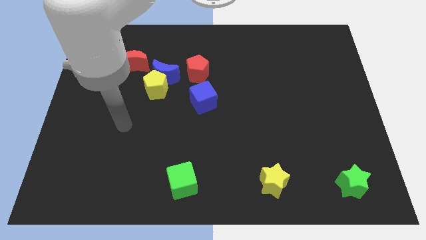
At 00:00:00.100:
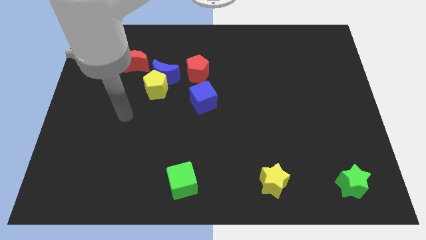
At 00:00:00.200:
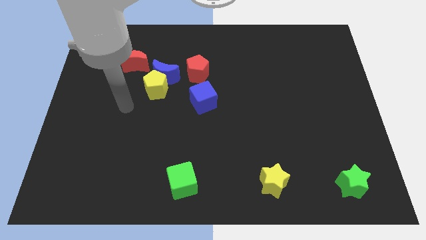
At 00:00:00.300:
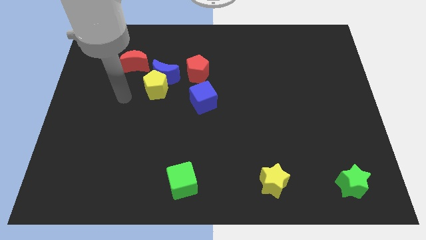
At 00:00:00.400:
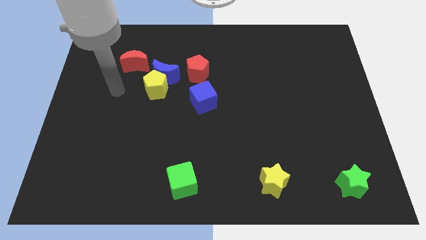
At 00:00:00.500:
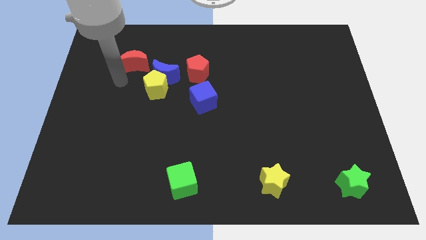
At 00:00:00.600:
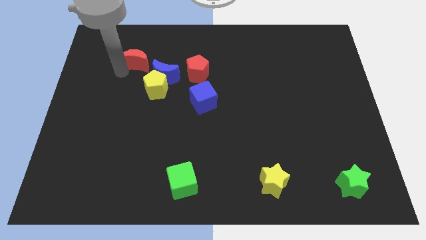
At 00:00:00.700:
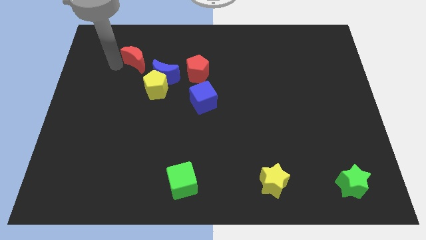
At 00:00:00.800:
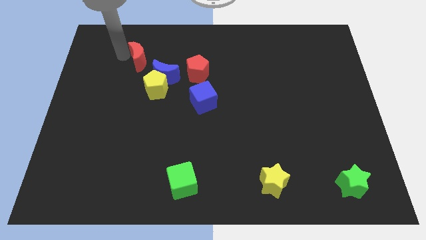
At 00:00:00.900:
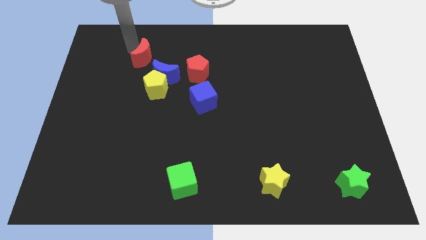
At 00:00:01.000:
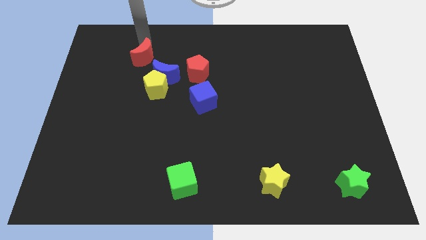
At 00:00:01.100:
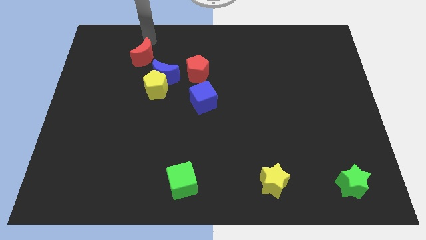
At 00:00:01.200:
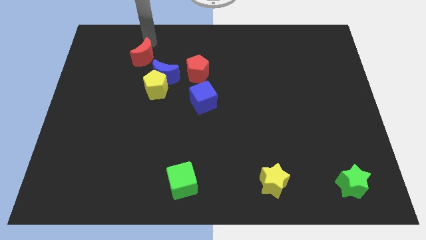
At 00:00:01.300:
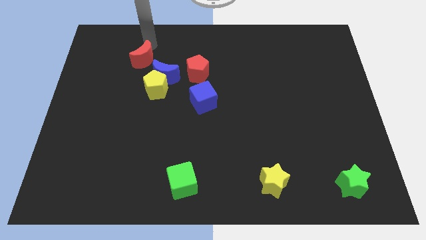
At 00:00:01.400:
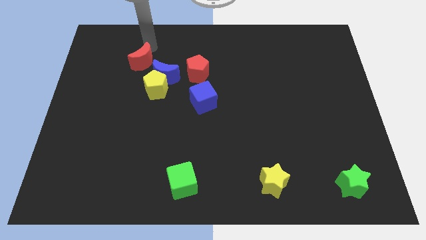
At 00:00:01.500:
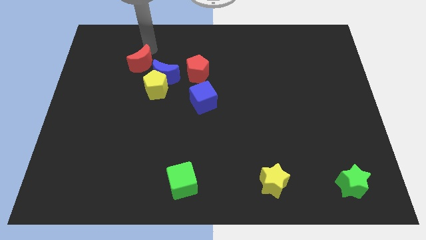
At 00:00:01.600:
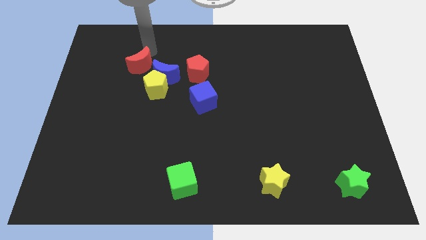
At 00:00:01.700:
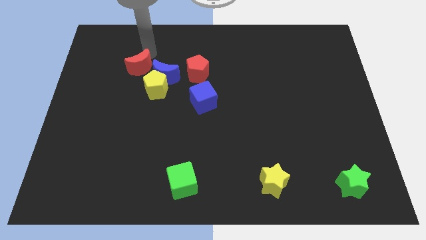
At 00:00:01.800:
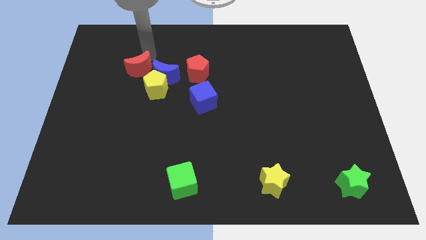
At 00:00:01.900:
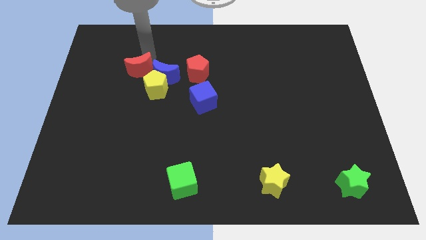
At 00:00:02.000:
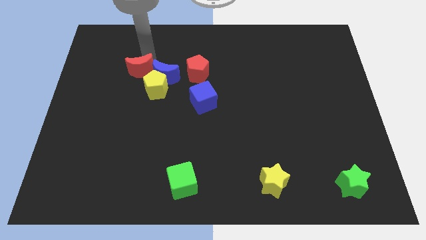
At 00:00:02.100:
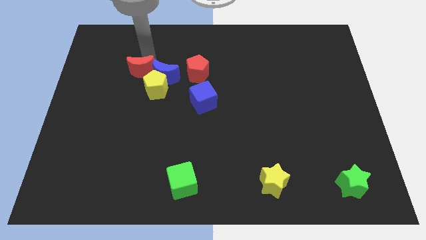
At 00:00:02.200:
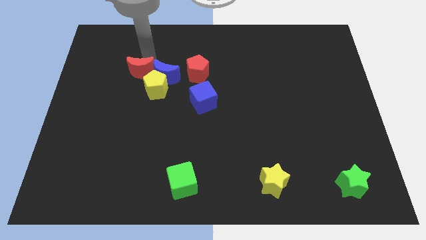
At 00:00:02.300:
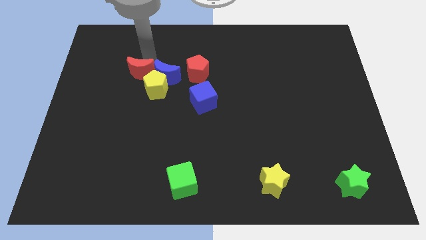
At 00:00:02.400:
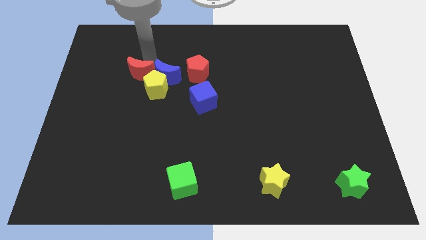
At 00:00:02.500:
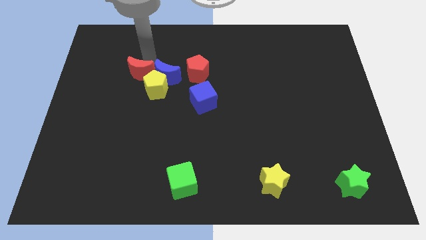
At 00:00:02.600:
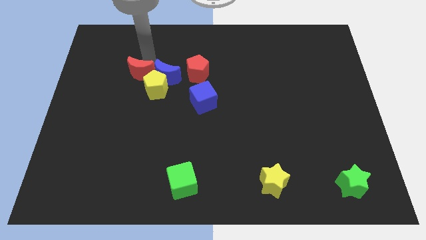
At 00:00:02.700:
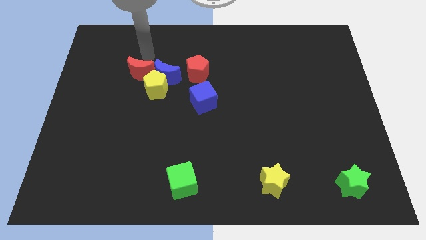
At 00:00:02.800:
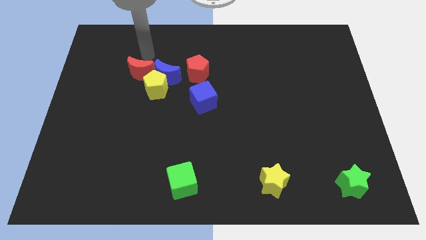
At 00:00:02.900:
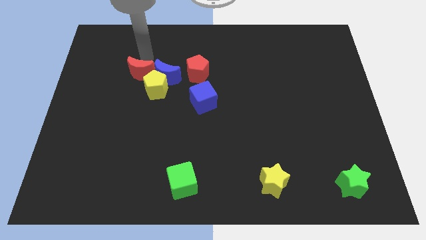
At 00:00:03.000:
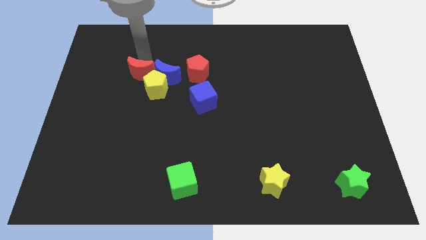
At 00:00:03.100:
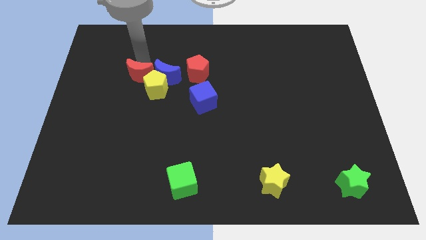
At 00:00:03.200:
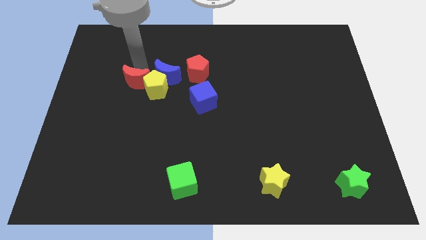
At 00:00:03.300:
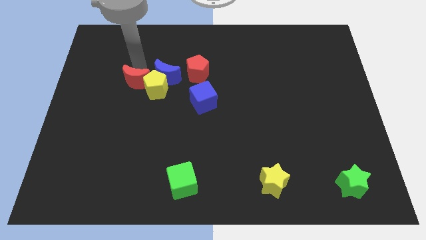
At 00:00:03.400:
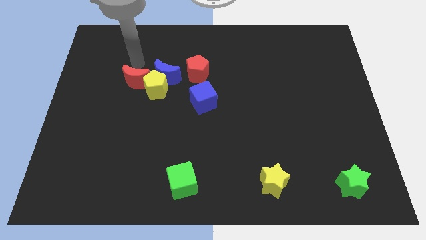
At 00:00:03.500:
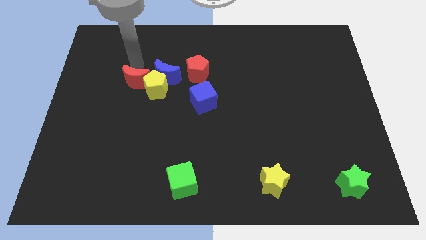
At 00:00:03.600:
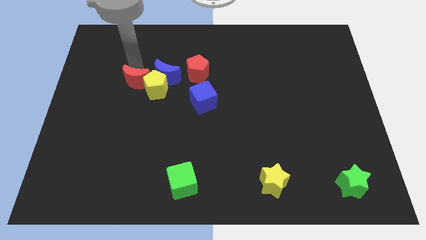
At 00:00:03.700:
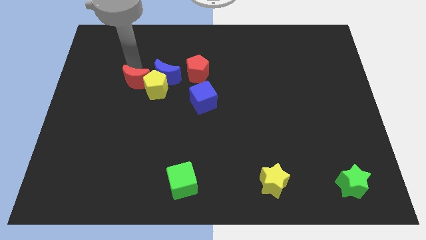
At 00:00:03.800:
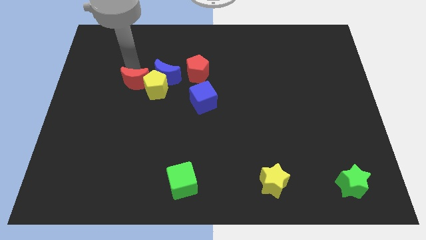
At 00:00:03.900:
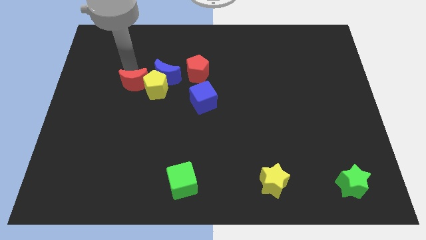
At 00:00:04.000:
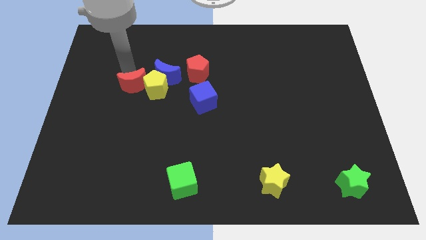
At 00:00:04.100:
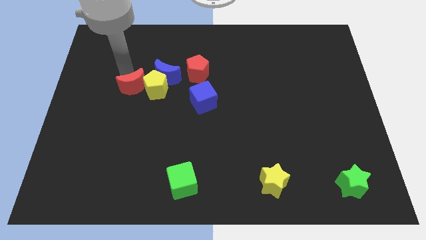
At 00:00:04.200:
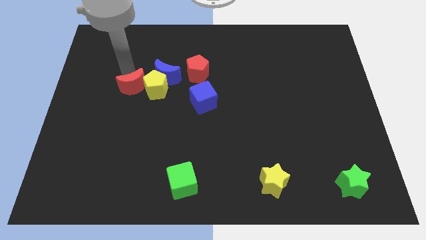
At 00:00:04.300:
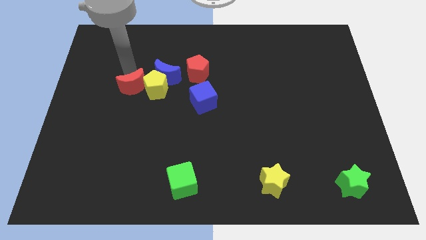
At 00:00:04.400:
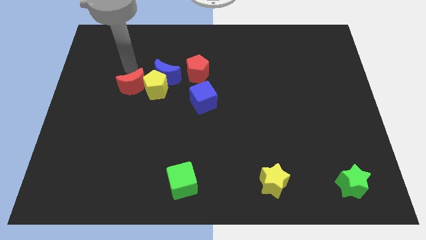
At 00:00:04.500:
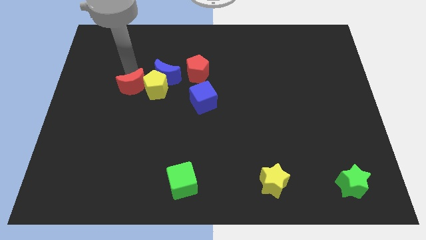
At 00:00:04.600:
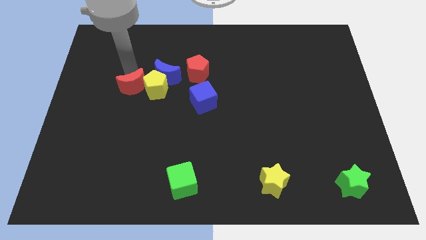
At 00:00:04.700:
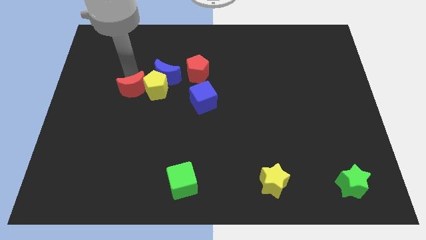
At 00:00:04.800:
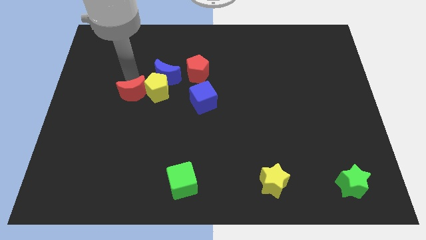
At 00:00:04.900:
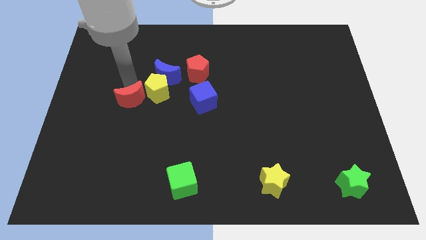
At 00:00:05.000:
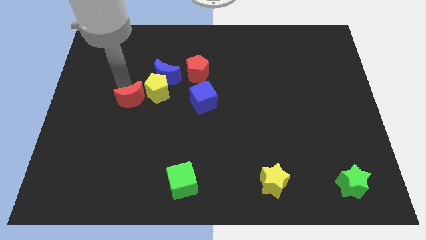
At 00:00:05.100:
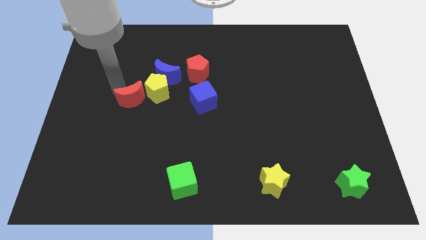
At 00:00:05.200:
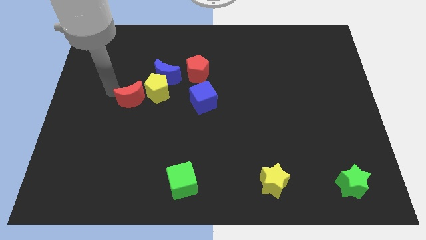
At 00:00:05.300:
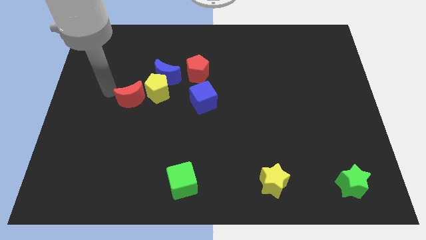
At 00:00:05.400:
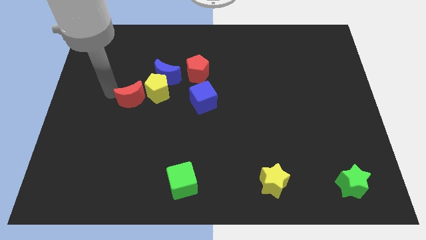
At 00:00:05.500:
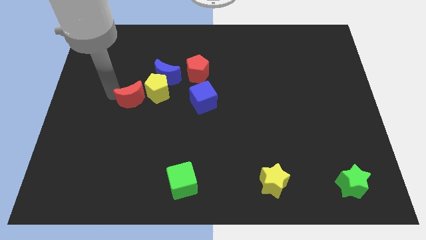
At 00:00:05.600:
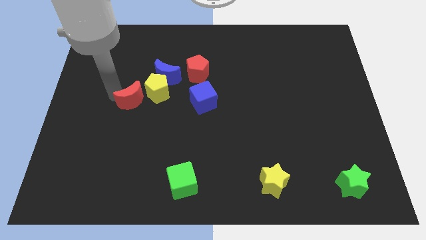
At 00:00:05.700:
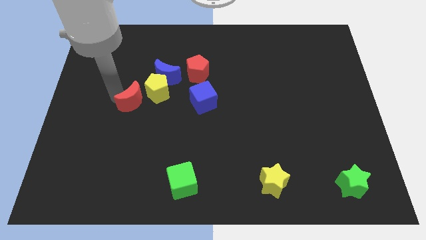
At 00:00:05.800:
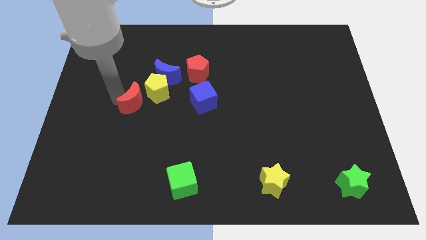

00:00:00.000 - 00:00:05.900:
slightly slide the red moon down and right

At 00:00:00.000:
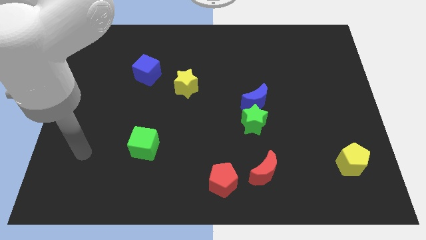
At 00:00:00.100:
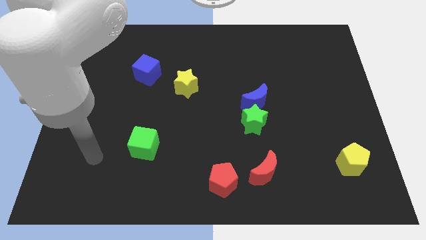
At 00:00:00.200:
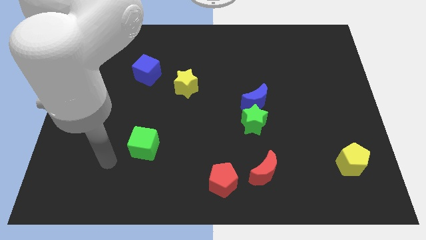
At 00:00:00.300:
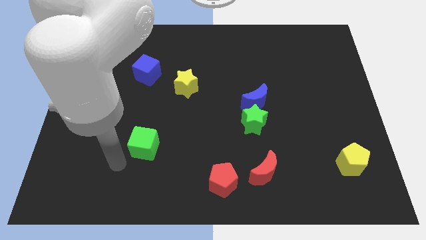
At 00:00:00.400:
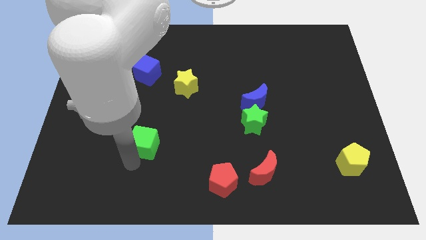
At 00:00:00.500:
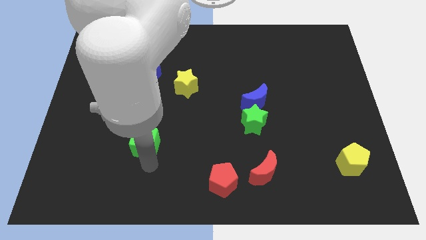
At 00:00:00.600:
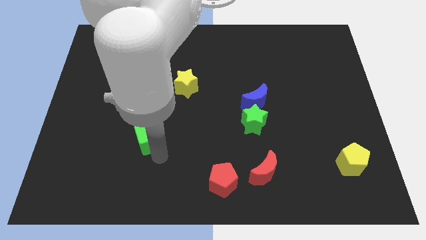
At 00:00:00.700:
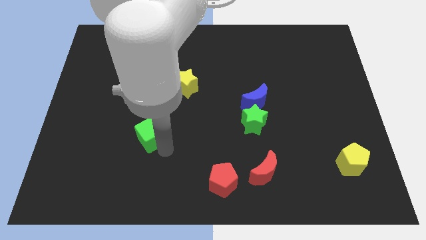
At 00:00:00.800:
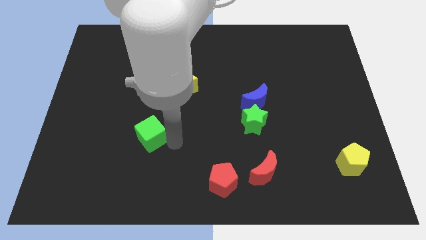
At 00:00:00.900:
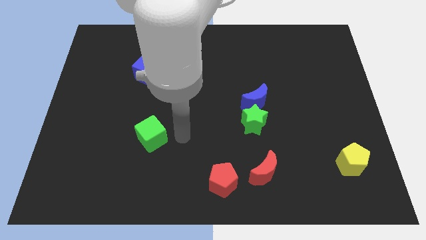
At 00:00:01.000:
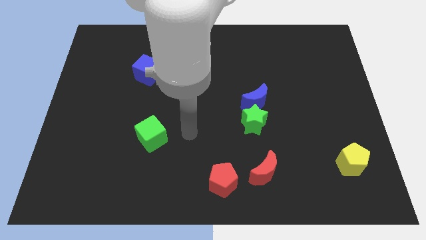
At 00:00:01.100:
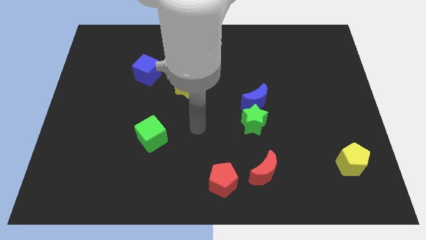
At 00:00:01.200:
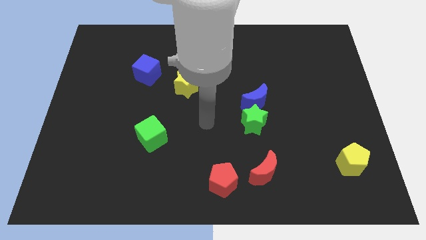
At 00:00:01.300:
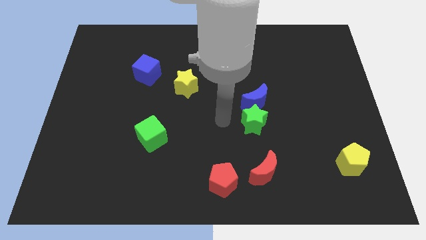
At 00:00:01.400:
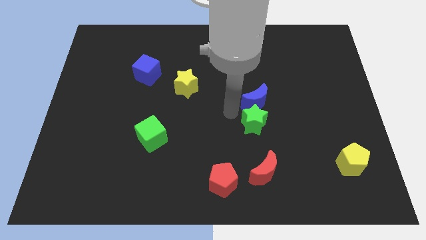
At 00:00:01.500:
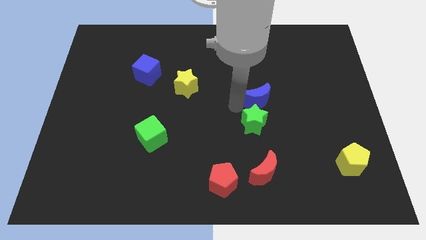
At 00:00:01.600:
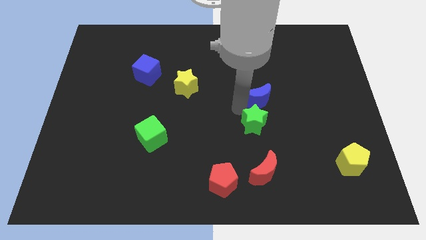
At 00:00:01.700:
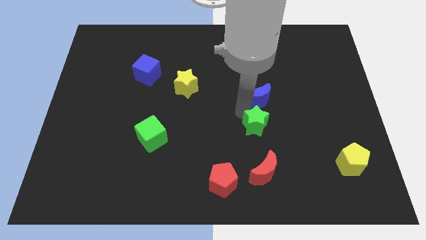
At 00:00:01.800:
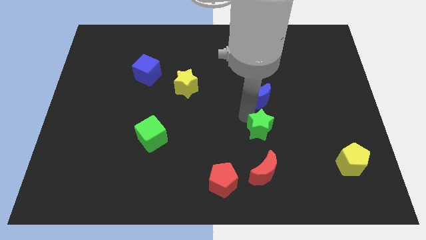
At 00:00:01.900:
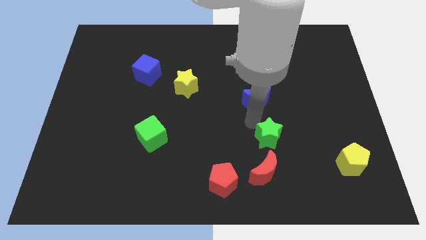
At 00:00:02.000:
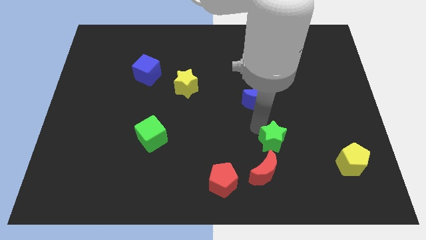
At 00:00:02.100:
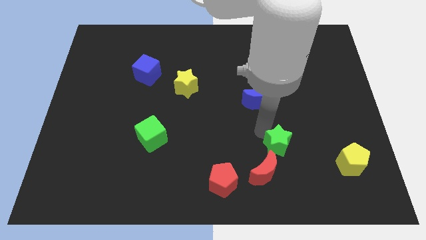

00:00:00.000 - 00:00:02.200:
slide the green star somewhat downwards and then right
